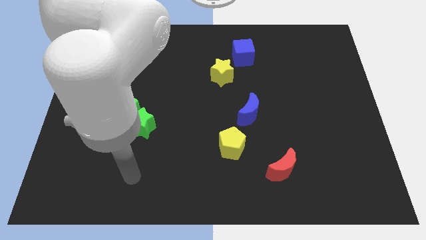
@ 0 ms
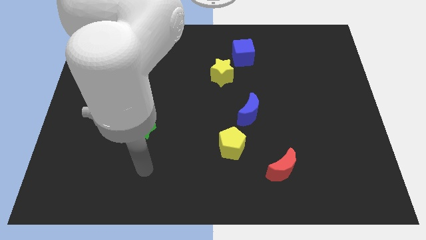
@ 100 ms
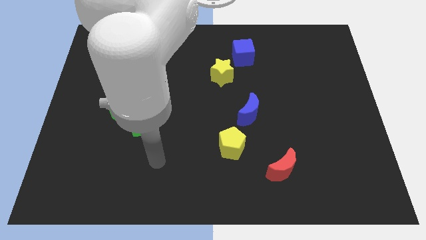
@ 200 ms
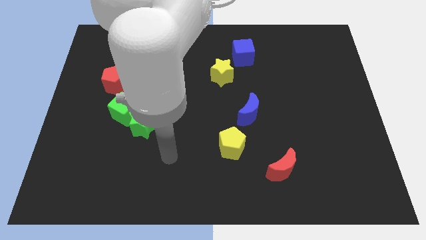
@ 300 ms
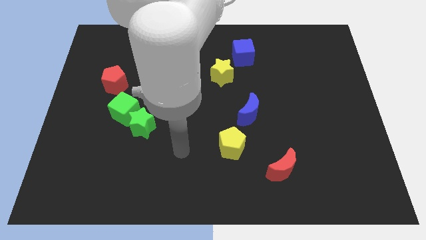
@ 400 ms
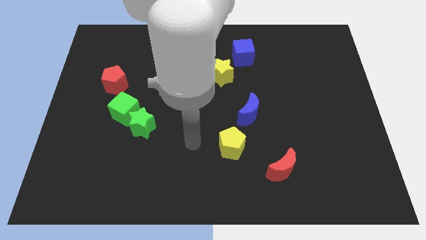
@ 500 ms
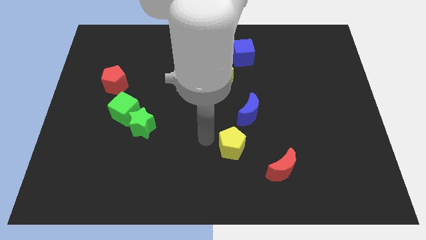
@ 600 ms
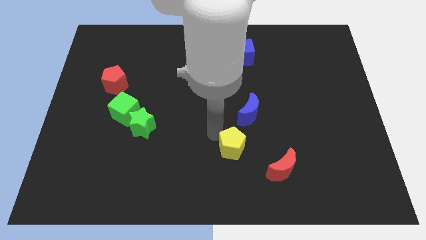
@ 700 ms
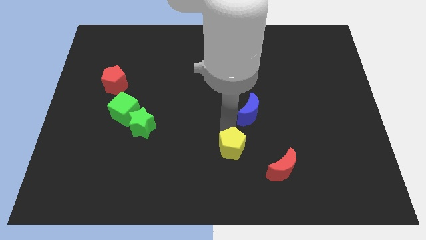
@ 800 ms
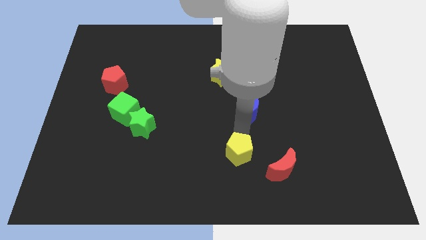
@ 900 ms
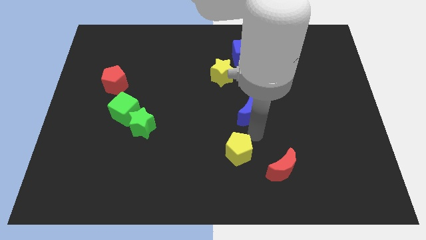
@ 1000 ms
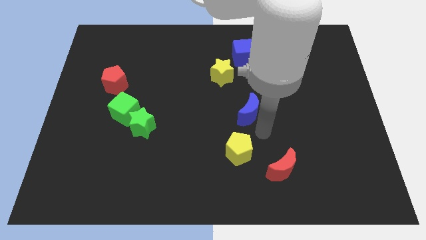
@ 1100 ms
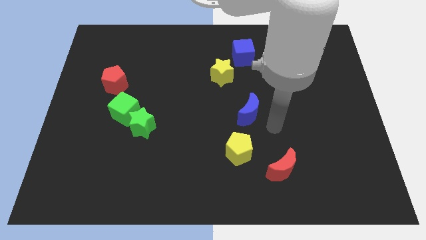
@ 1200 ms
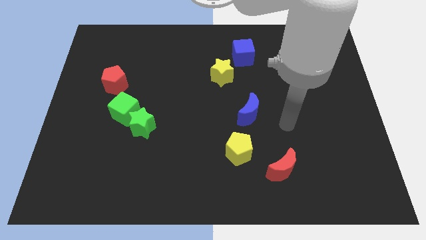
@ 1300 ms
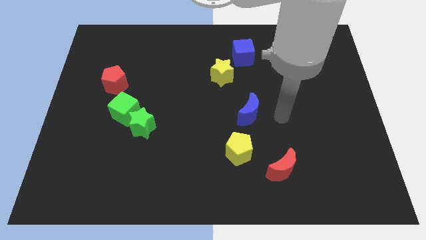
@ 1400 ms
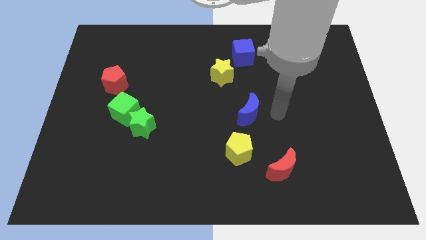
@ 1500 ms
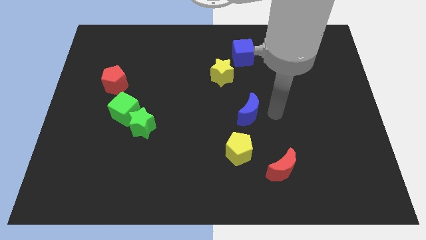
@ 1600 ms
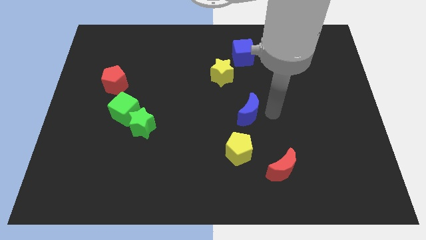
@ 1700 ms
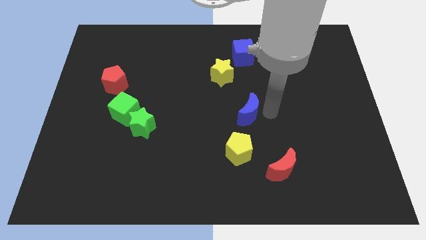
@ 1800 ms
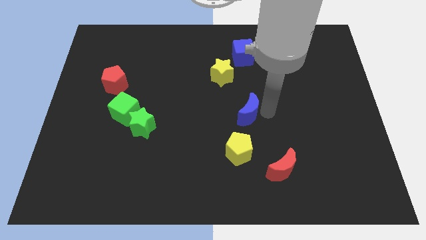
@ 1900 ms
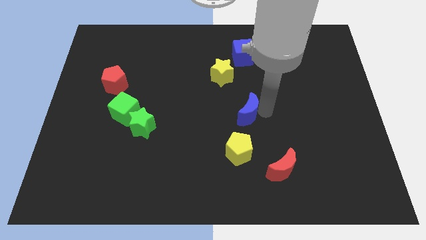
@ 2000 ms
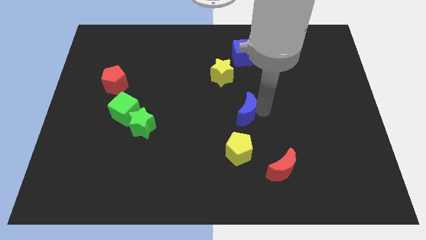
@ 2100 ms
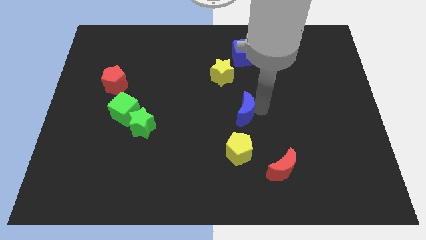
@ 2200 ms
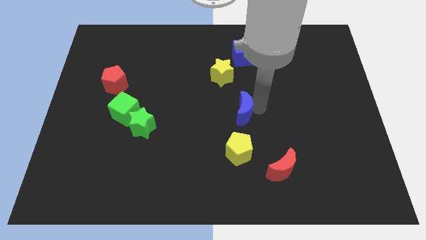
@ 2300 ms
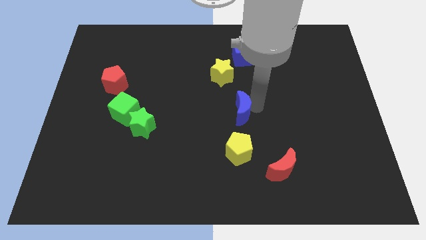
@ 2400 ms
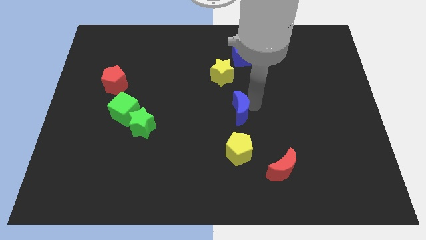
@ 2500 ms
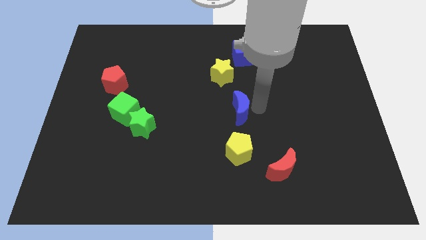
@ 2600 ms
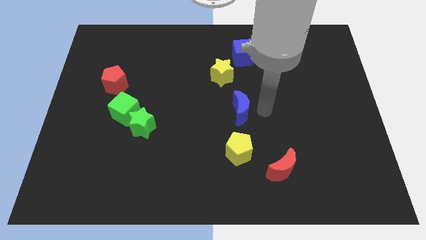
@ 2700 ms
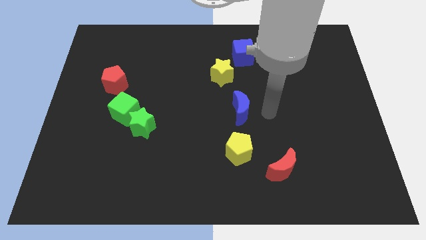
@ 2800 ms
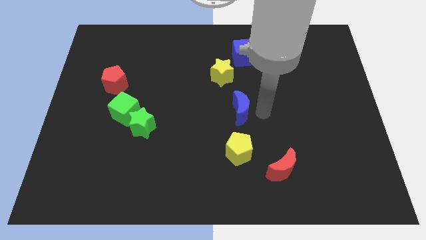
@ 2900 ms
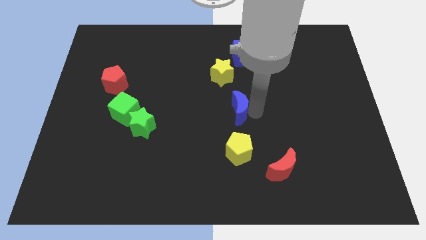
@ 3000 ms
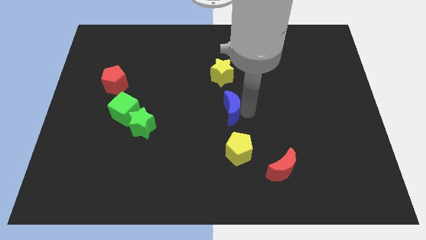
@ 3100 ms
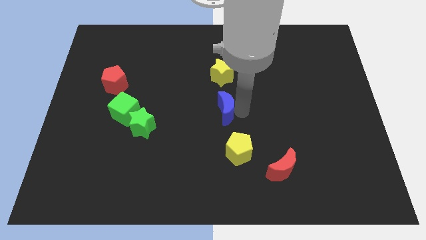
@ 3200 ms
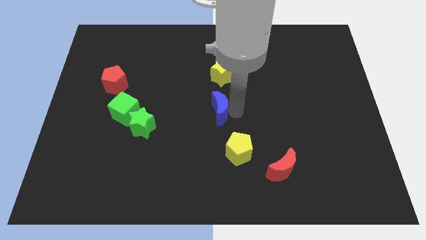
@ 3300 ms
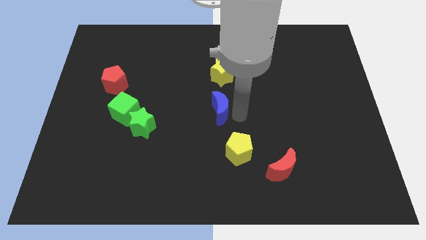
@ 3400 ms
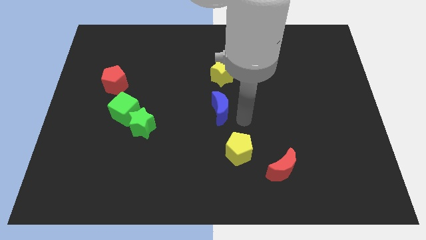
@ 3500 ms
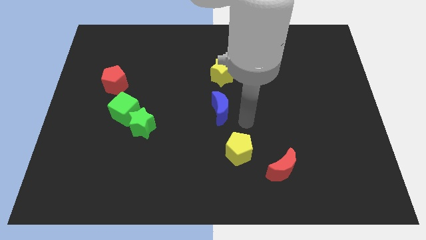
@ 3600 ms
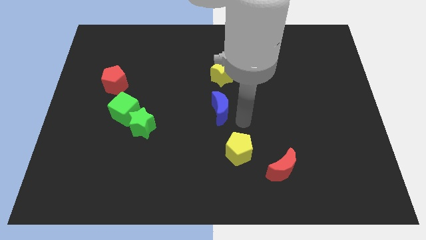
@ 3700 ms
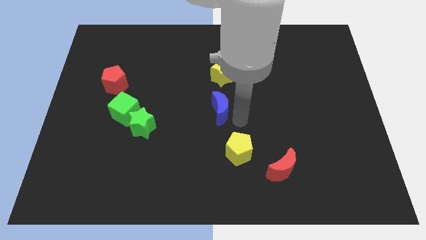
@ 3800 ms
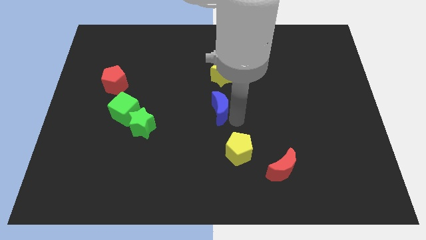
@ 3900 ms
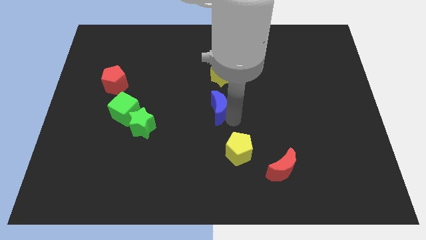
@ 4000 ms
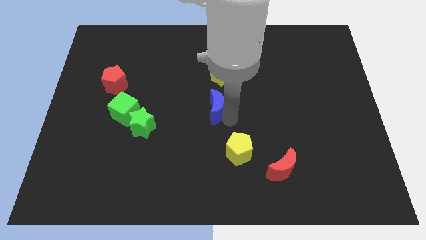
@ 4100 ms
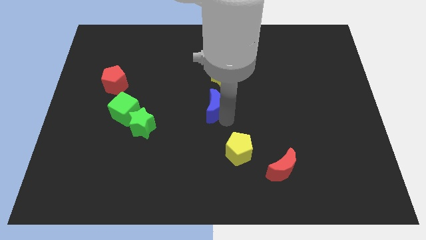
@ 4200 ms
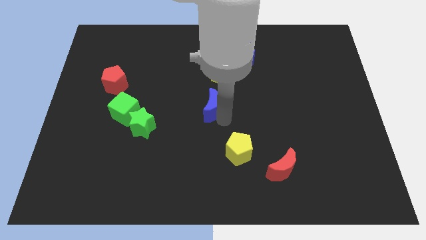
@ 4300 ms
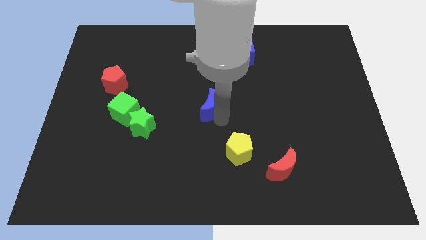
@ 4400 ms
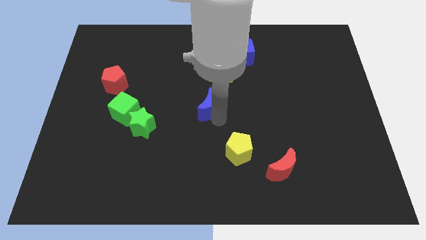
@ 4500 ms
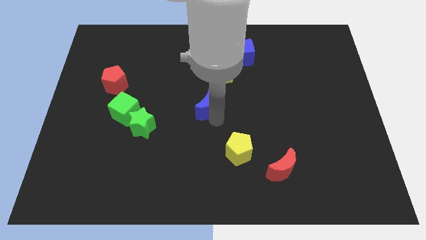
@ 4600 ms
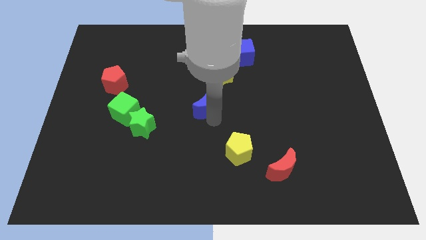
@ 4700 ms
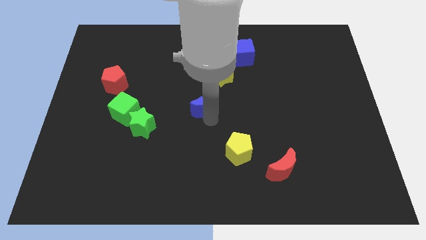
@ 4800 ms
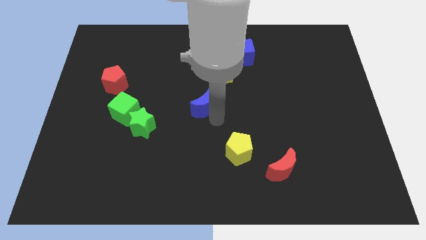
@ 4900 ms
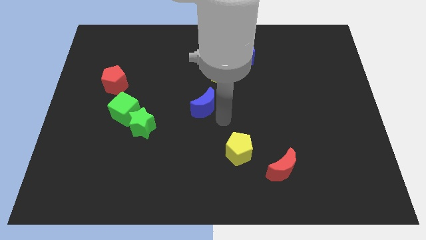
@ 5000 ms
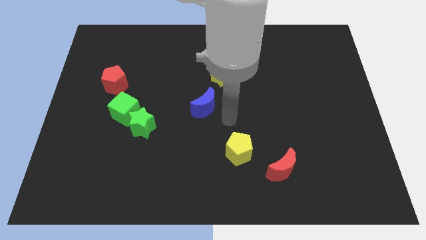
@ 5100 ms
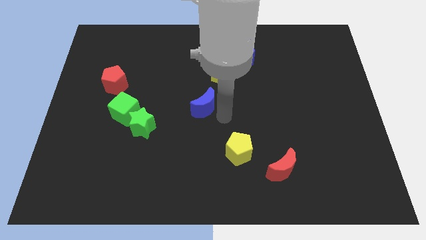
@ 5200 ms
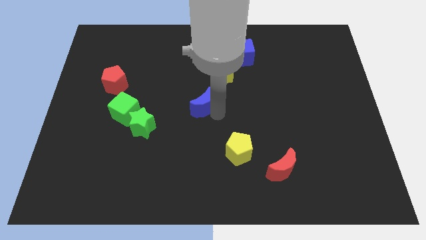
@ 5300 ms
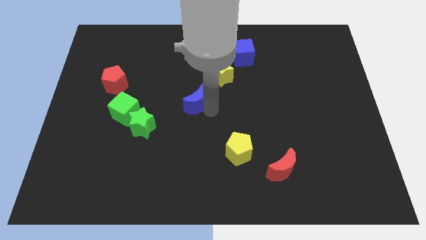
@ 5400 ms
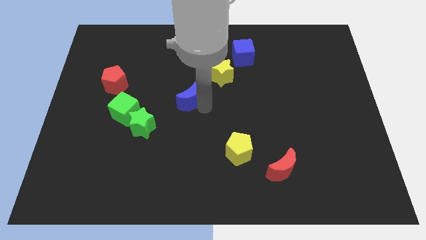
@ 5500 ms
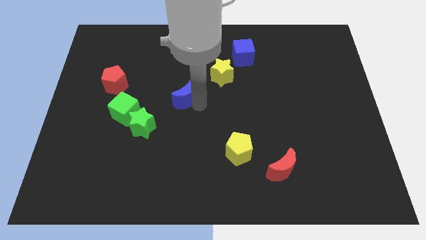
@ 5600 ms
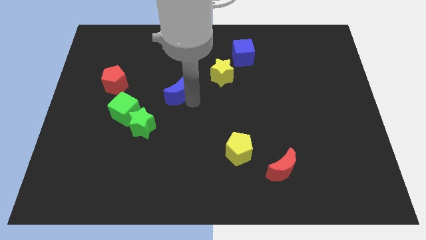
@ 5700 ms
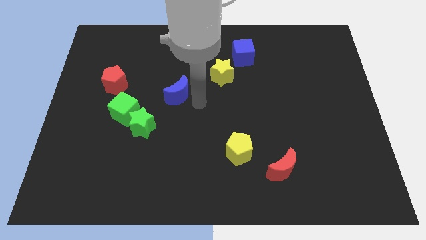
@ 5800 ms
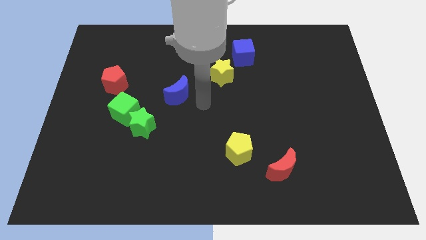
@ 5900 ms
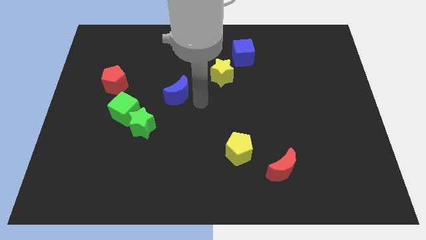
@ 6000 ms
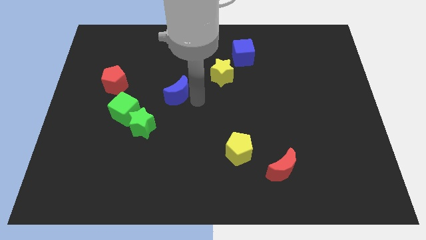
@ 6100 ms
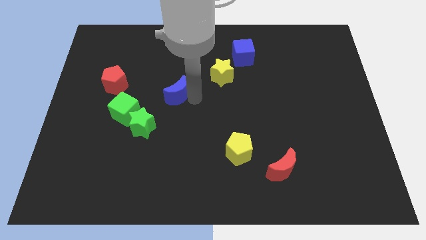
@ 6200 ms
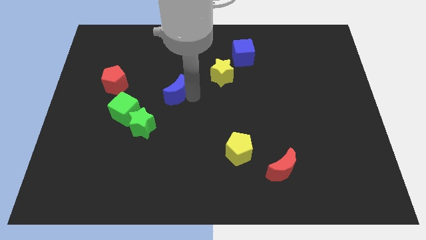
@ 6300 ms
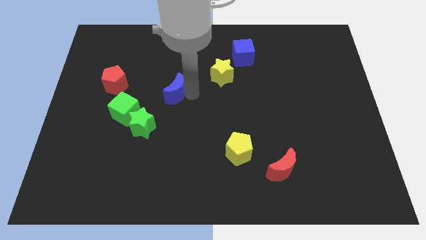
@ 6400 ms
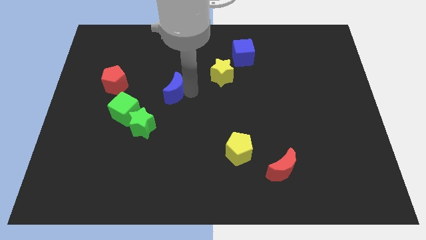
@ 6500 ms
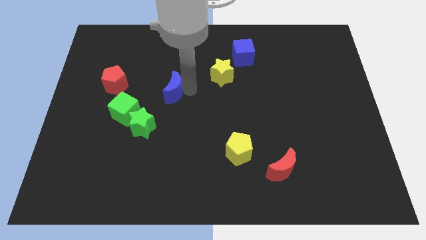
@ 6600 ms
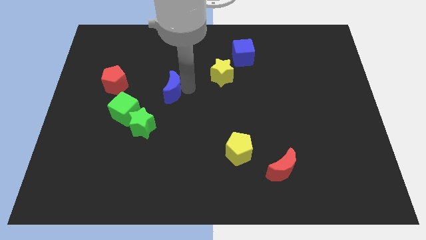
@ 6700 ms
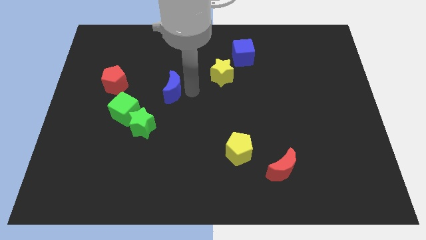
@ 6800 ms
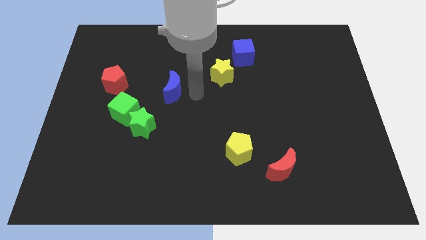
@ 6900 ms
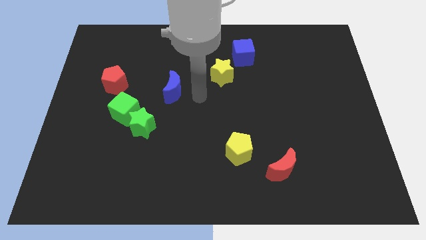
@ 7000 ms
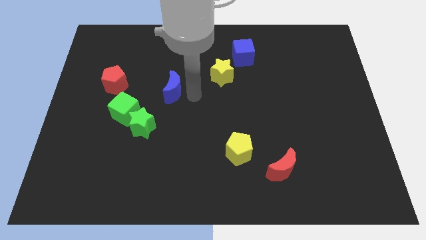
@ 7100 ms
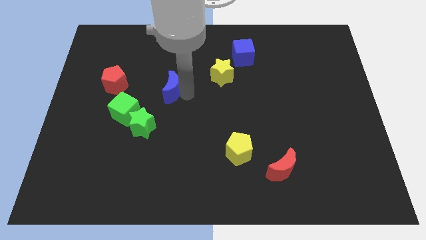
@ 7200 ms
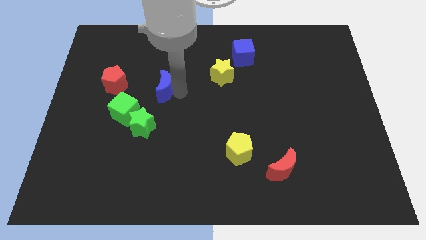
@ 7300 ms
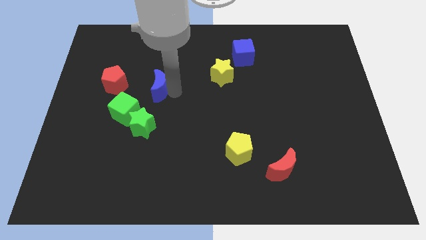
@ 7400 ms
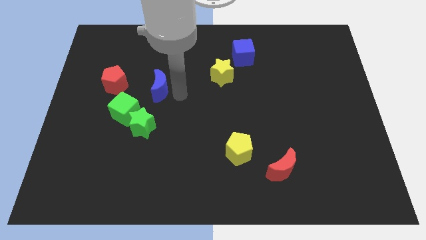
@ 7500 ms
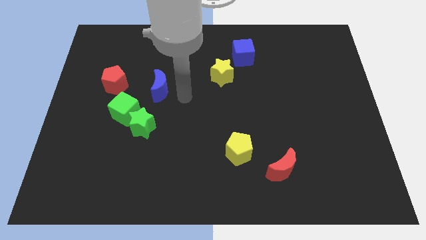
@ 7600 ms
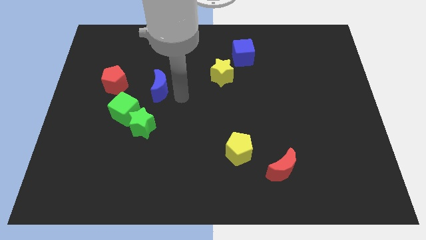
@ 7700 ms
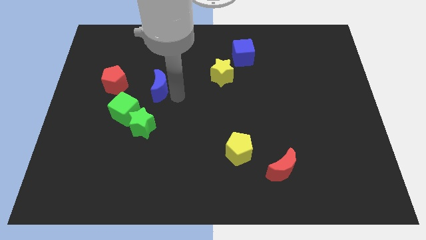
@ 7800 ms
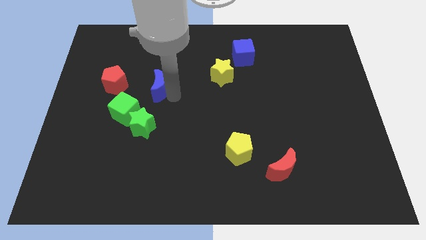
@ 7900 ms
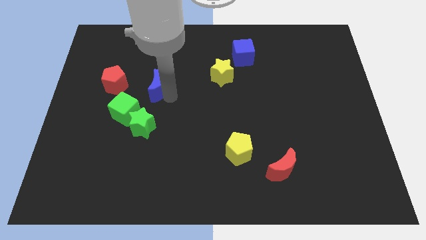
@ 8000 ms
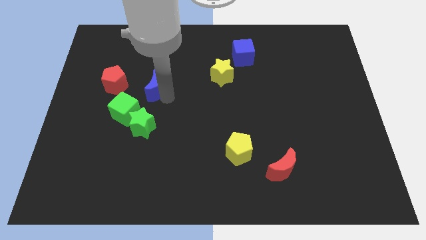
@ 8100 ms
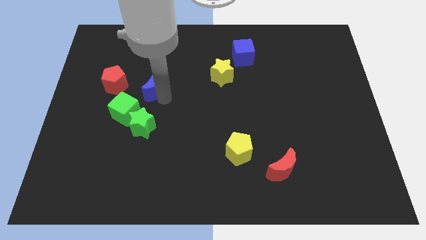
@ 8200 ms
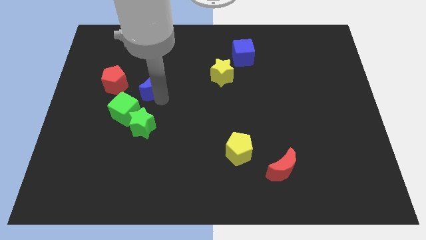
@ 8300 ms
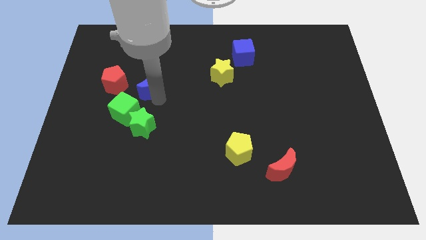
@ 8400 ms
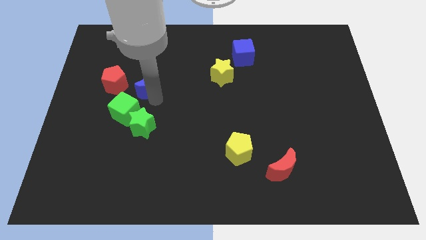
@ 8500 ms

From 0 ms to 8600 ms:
move the blue moon above the green cube
